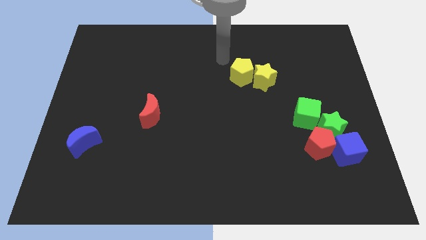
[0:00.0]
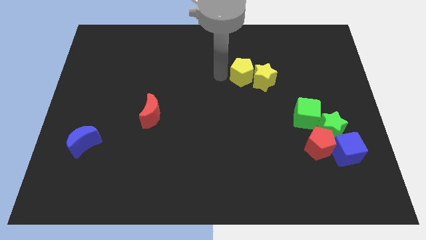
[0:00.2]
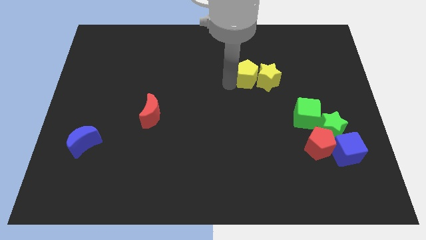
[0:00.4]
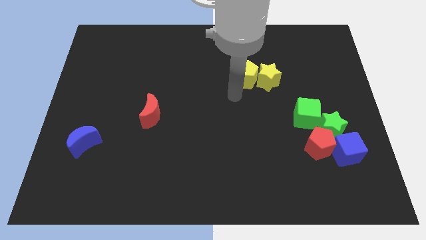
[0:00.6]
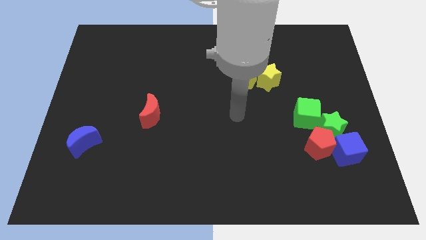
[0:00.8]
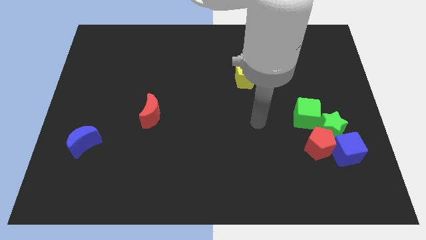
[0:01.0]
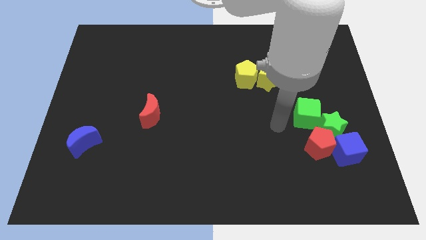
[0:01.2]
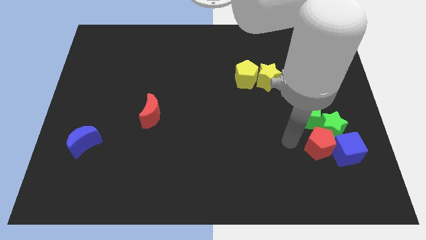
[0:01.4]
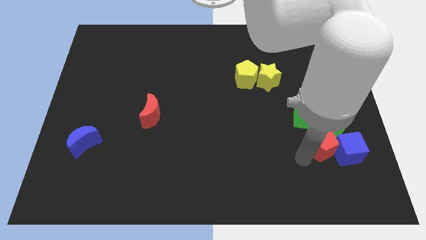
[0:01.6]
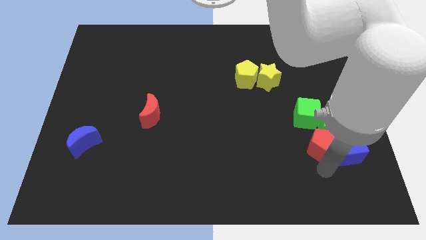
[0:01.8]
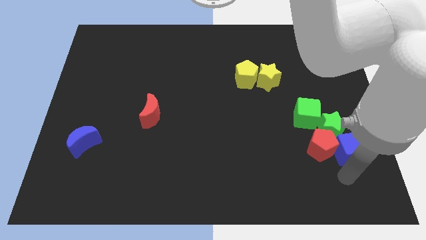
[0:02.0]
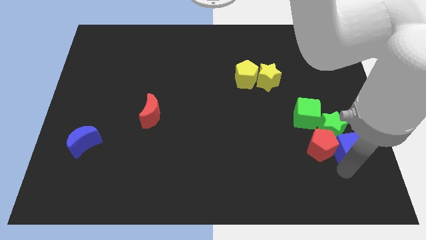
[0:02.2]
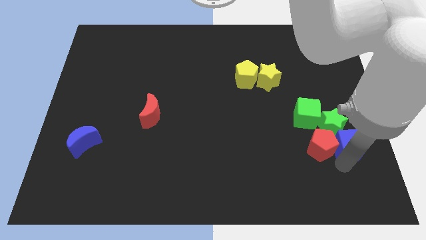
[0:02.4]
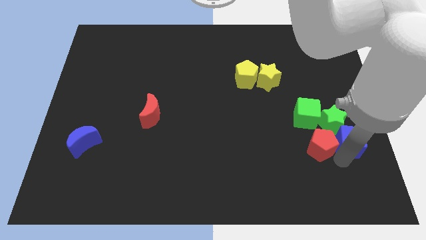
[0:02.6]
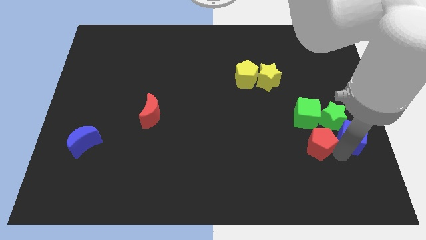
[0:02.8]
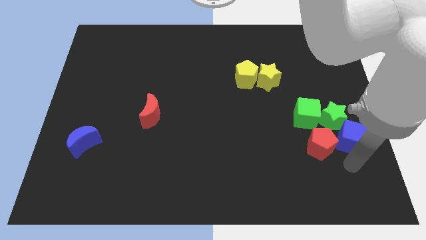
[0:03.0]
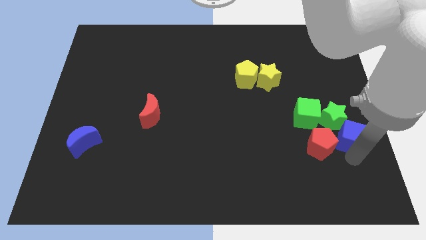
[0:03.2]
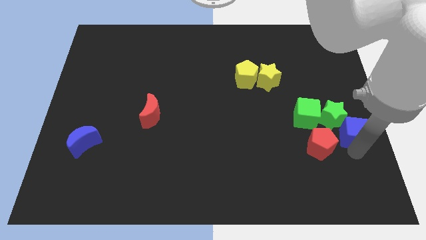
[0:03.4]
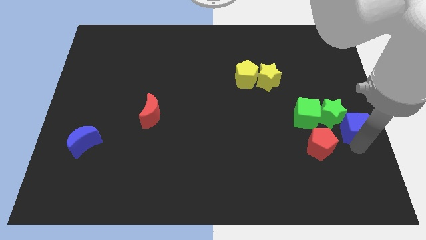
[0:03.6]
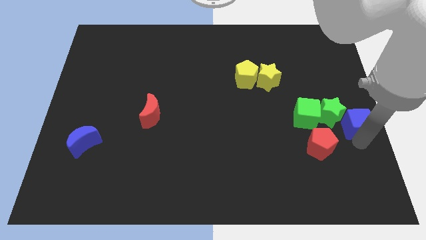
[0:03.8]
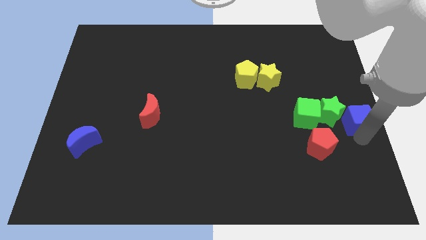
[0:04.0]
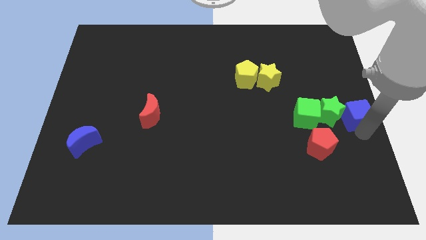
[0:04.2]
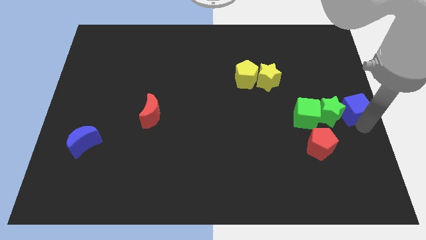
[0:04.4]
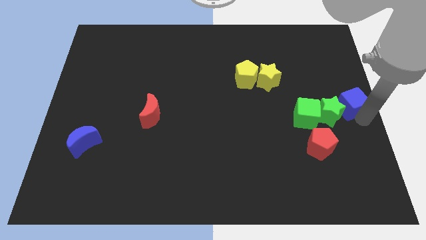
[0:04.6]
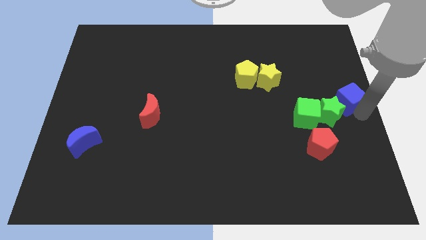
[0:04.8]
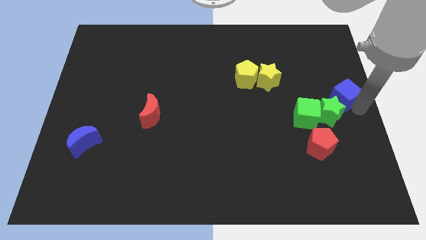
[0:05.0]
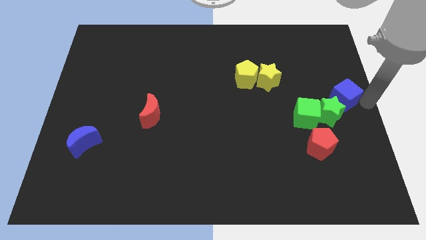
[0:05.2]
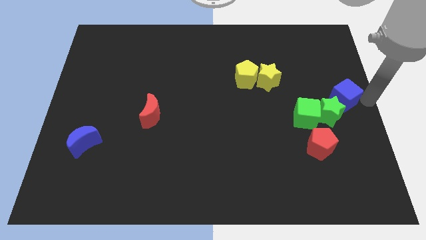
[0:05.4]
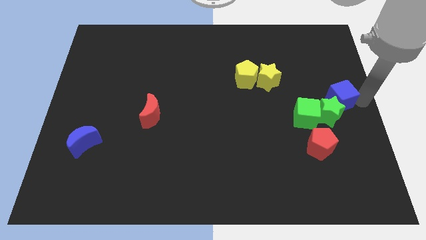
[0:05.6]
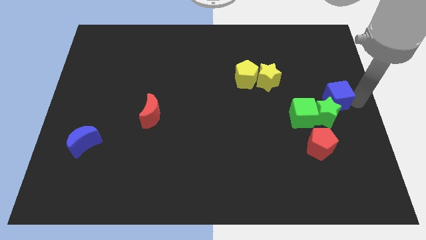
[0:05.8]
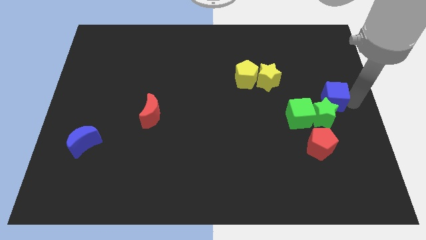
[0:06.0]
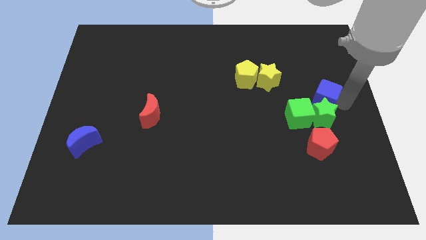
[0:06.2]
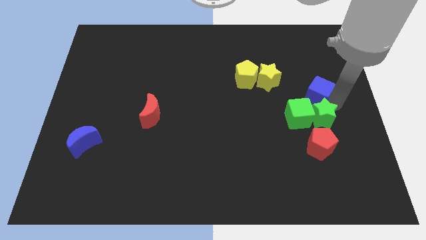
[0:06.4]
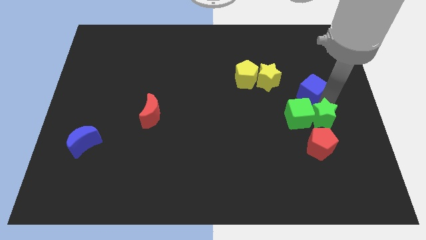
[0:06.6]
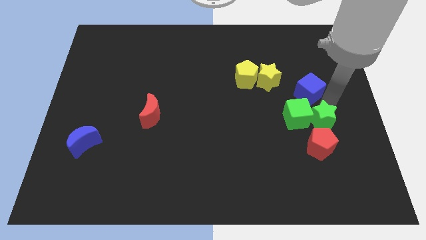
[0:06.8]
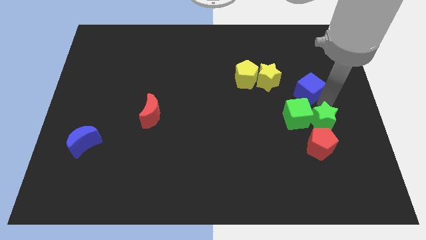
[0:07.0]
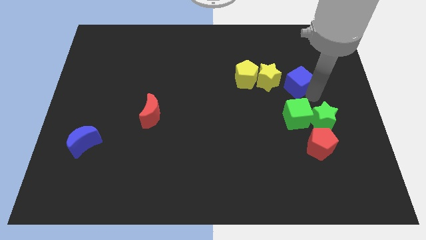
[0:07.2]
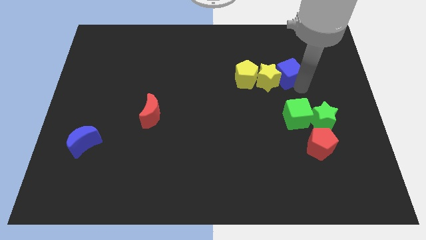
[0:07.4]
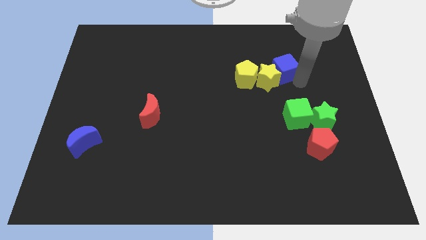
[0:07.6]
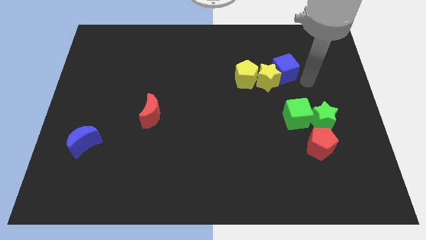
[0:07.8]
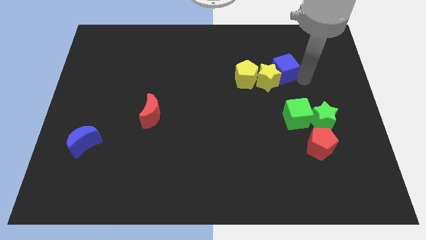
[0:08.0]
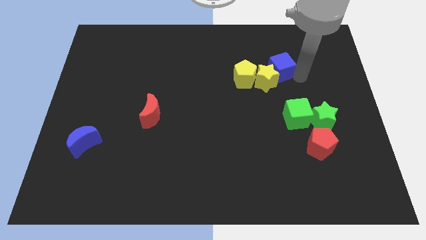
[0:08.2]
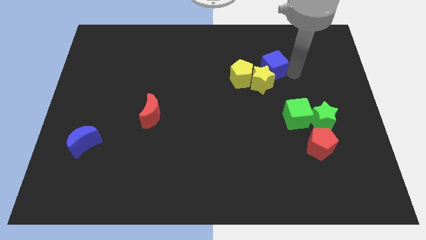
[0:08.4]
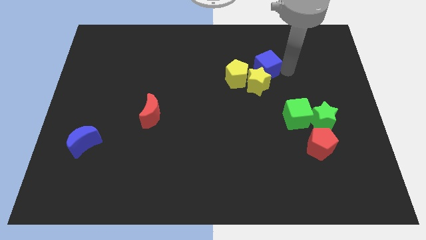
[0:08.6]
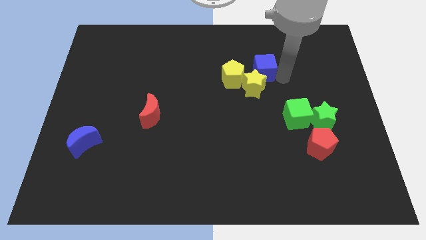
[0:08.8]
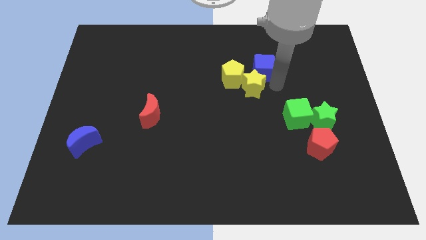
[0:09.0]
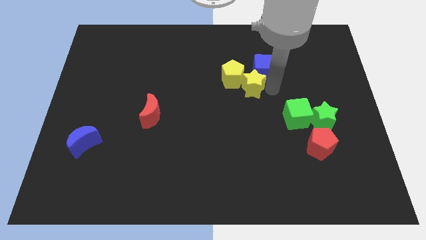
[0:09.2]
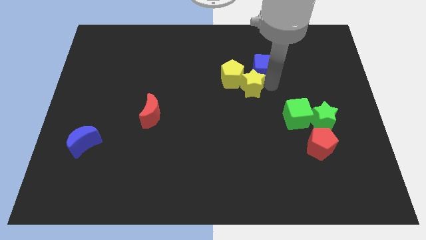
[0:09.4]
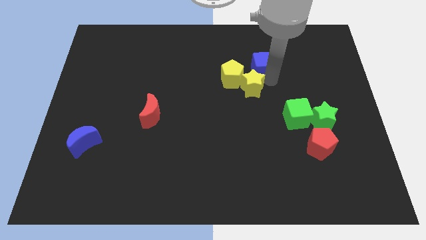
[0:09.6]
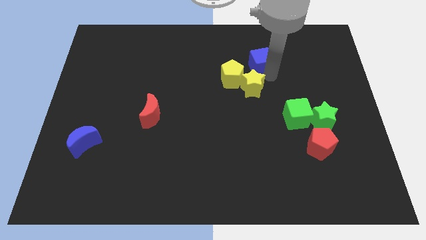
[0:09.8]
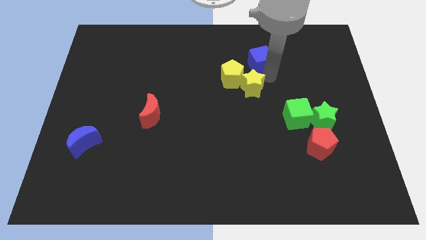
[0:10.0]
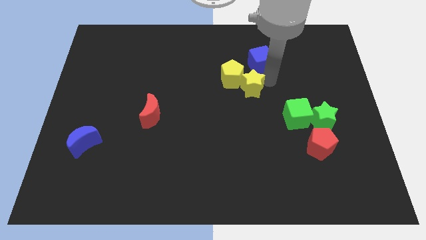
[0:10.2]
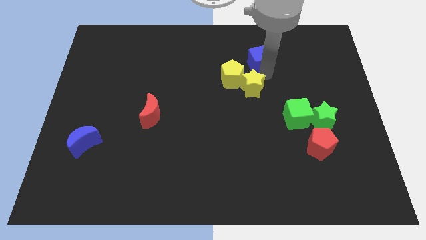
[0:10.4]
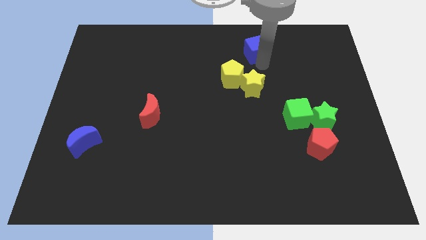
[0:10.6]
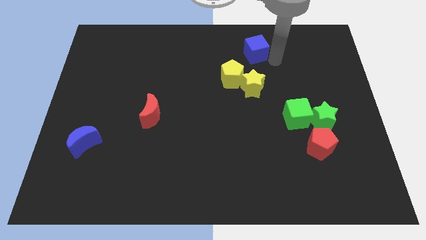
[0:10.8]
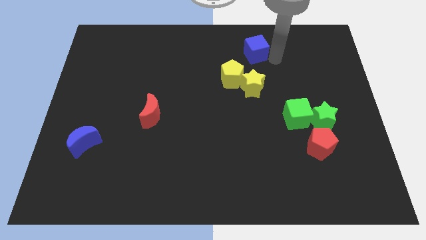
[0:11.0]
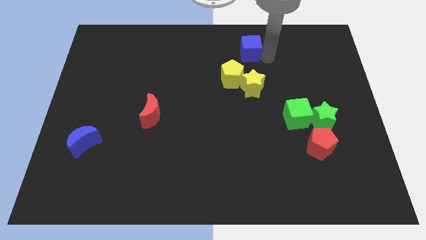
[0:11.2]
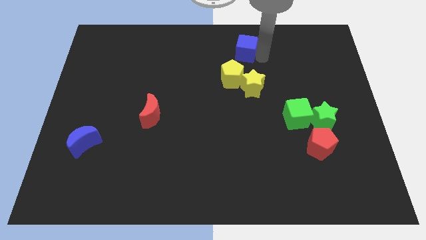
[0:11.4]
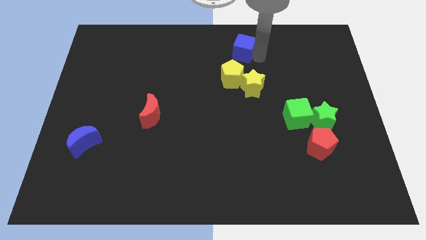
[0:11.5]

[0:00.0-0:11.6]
push the blue cube to the top
